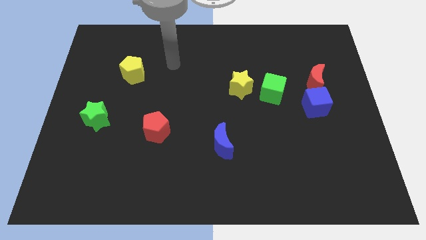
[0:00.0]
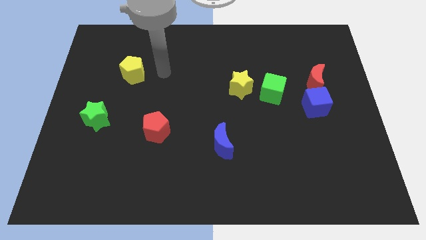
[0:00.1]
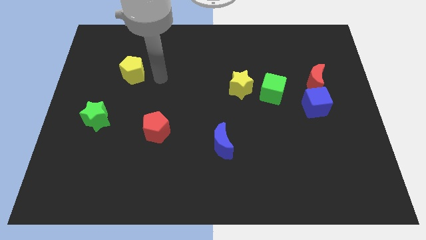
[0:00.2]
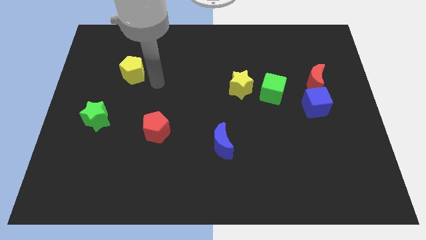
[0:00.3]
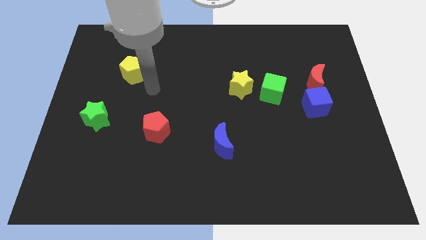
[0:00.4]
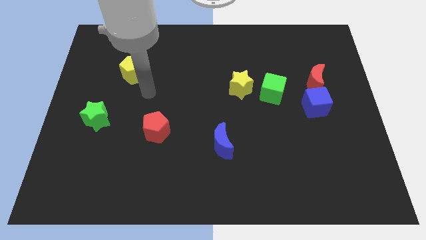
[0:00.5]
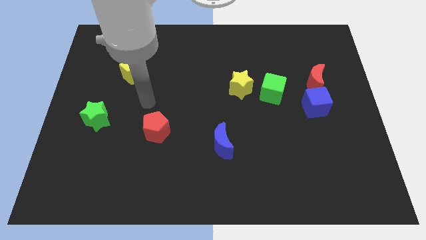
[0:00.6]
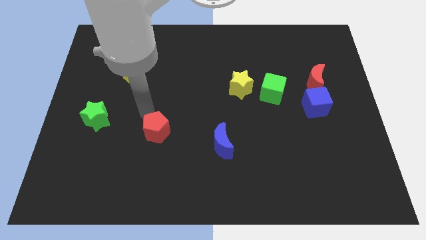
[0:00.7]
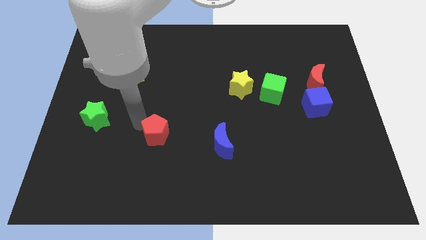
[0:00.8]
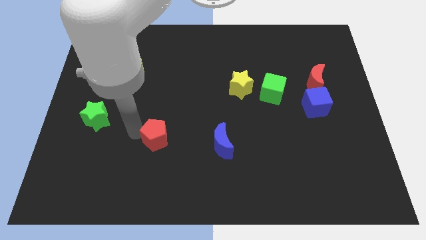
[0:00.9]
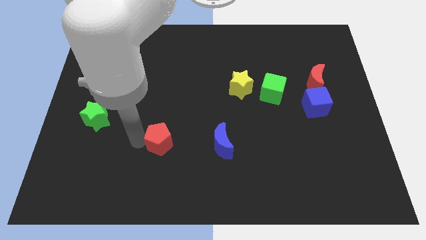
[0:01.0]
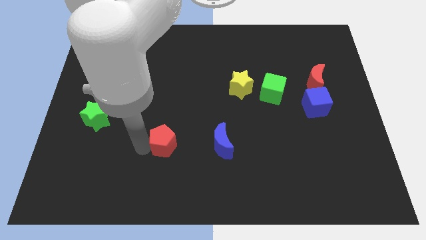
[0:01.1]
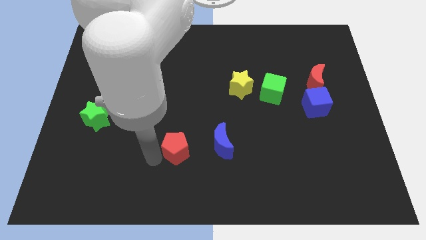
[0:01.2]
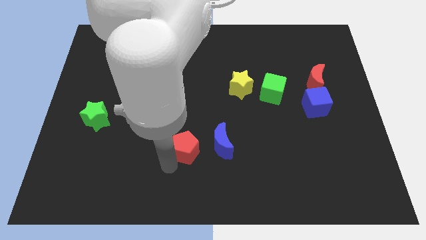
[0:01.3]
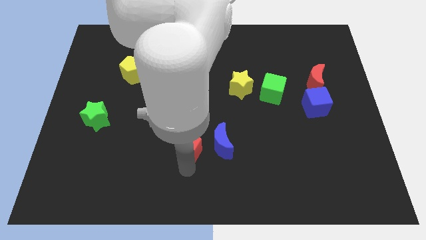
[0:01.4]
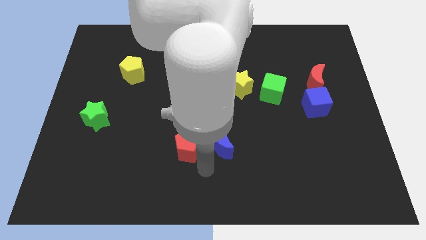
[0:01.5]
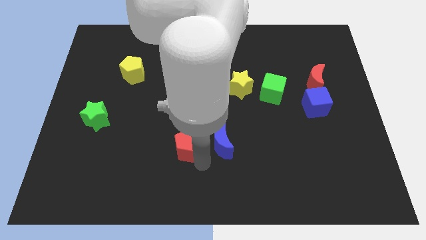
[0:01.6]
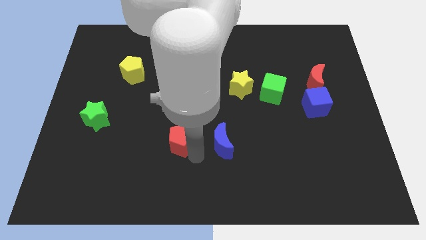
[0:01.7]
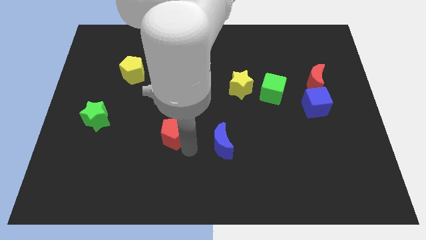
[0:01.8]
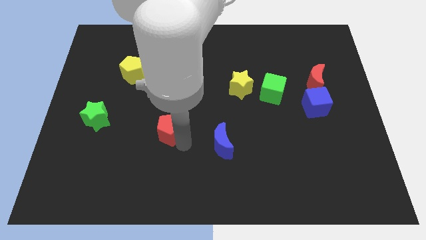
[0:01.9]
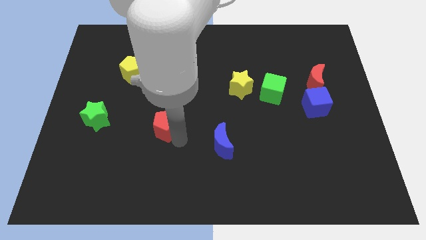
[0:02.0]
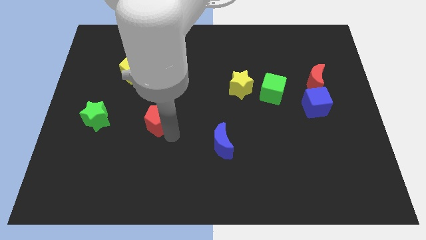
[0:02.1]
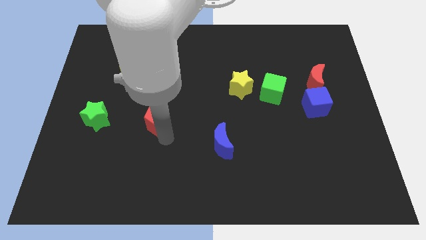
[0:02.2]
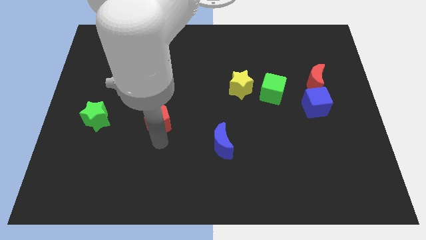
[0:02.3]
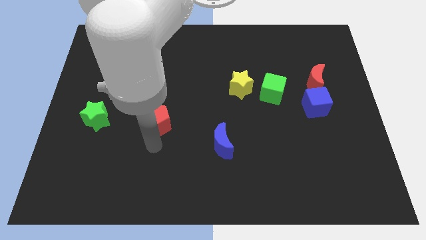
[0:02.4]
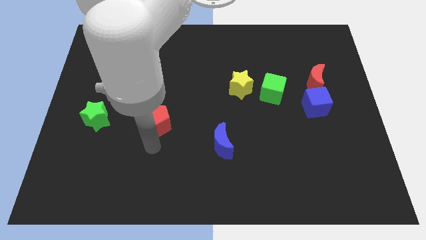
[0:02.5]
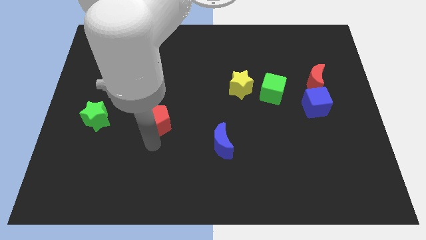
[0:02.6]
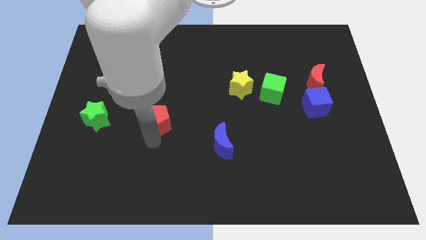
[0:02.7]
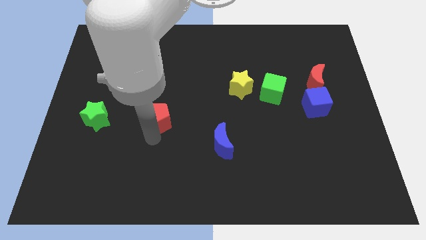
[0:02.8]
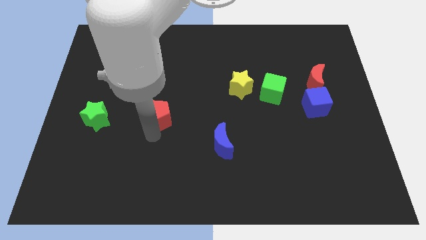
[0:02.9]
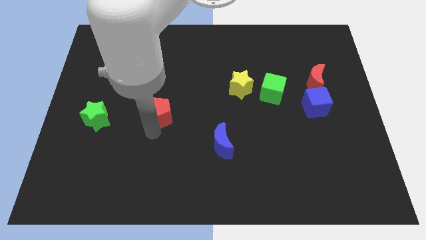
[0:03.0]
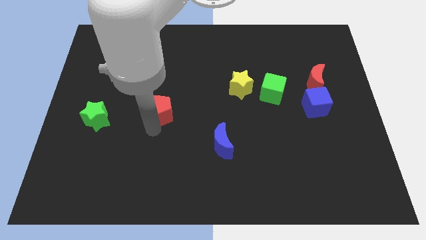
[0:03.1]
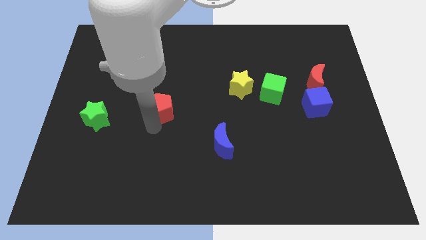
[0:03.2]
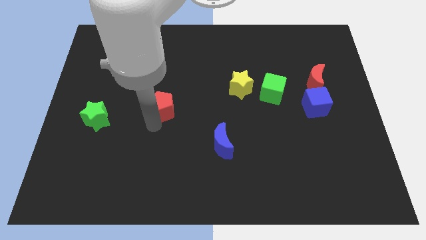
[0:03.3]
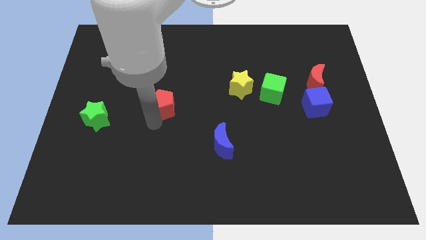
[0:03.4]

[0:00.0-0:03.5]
push the red pentagon upwards a bit

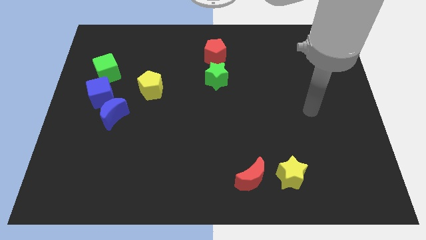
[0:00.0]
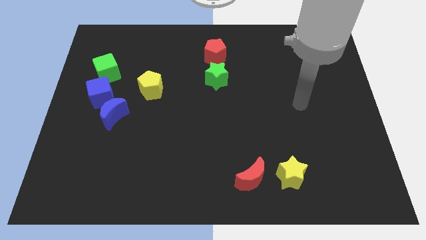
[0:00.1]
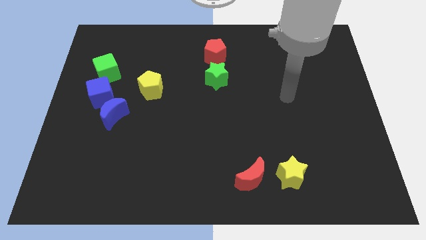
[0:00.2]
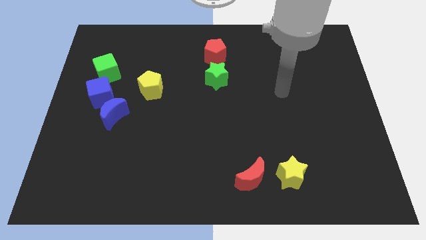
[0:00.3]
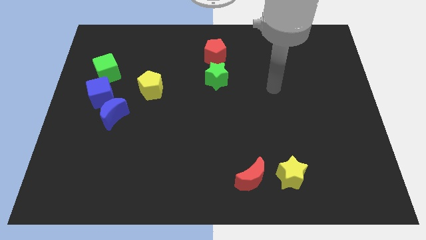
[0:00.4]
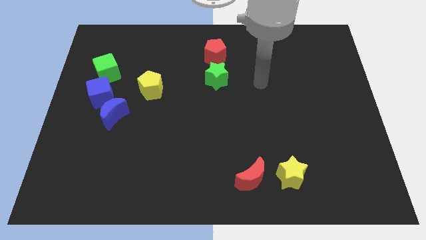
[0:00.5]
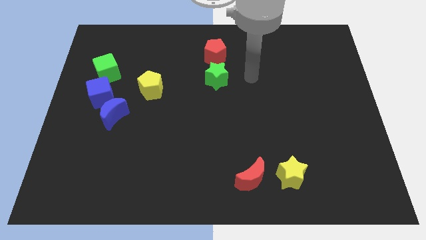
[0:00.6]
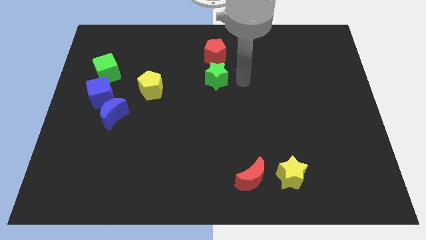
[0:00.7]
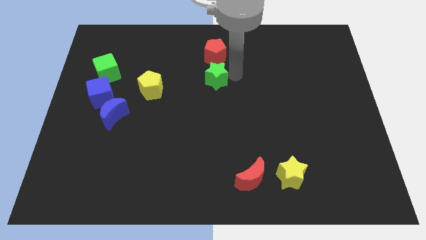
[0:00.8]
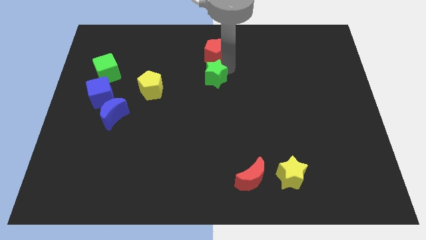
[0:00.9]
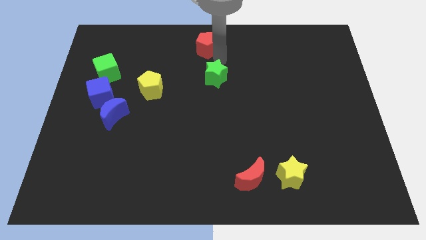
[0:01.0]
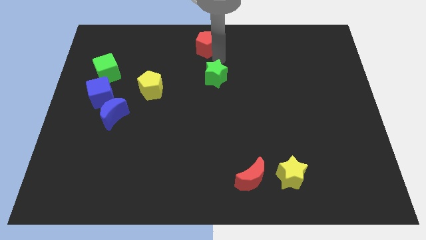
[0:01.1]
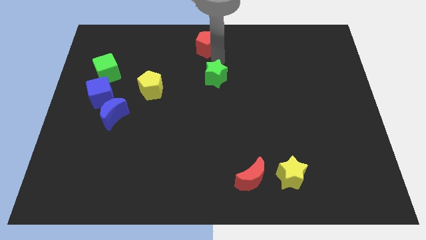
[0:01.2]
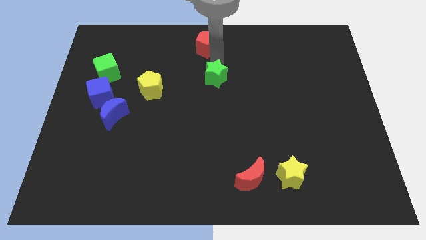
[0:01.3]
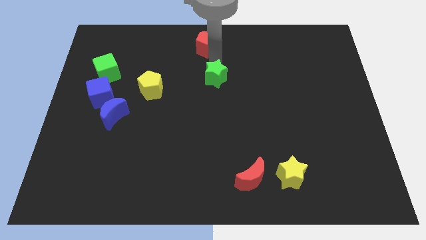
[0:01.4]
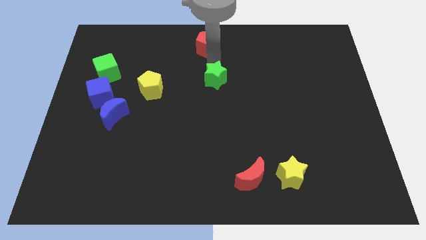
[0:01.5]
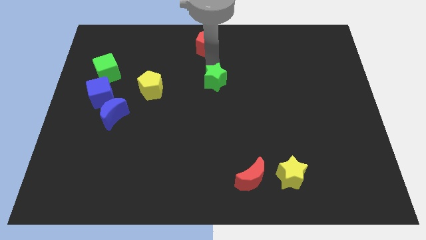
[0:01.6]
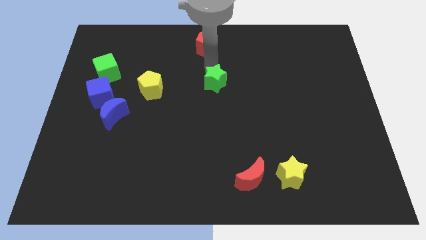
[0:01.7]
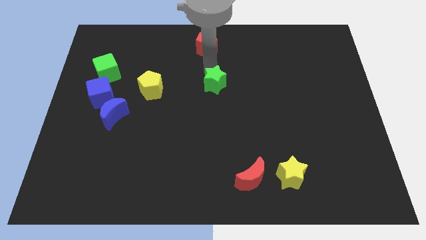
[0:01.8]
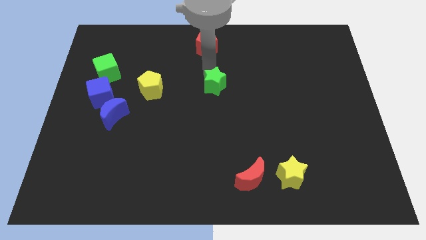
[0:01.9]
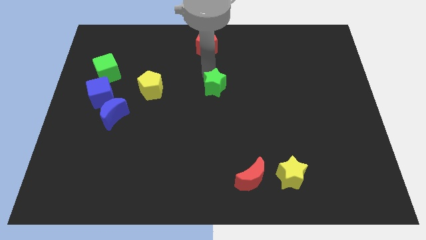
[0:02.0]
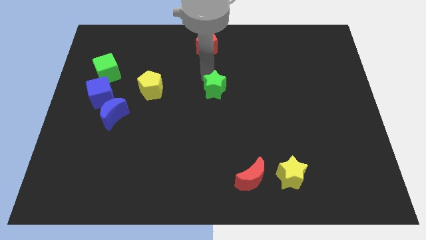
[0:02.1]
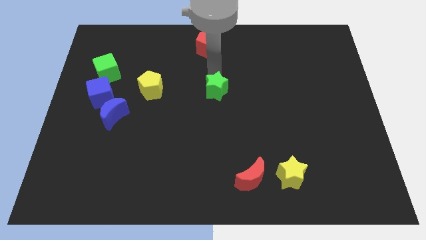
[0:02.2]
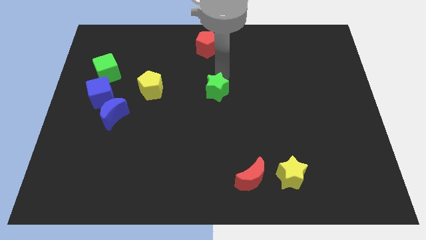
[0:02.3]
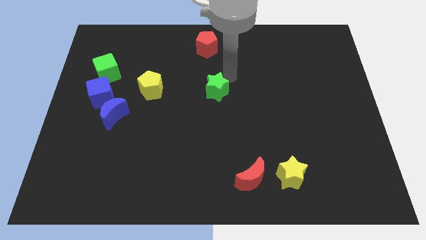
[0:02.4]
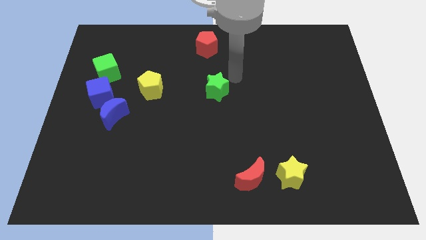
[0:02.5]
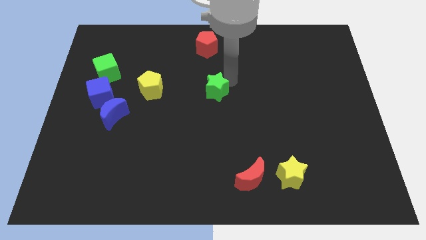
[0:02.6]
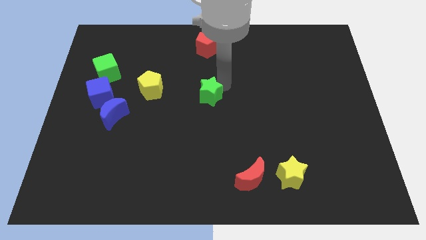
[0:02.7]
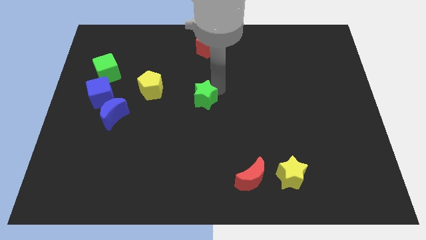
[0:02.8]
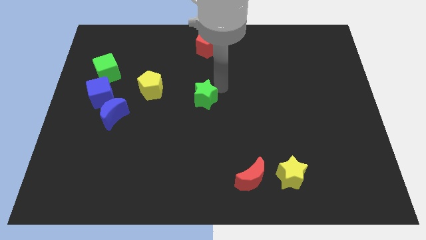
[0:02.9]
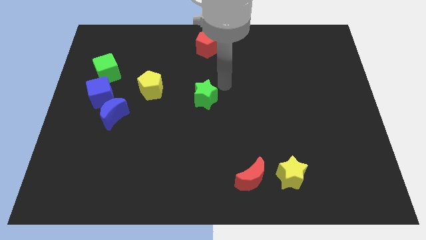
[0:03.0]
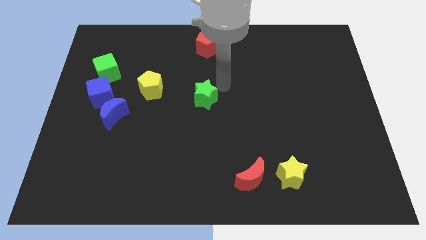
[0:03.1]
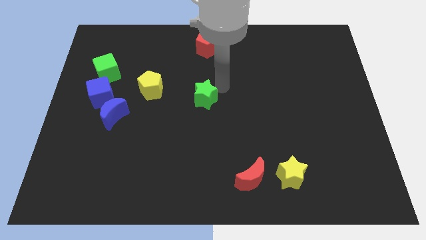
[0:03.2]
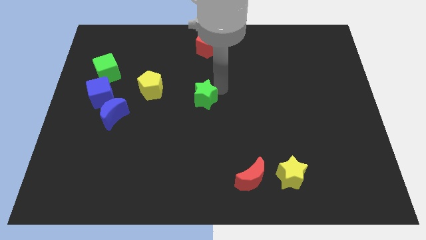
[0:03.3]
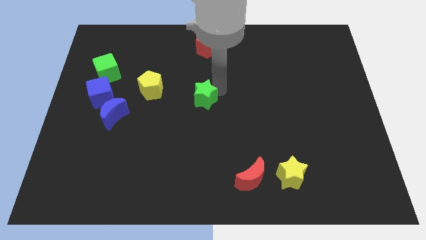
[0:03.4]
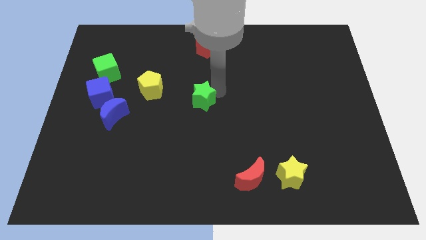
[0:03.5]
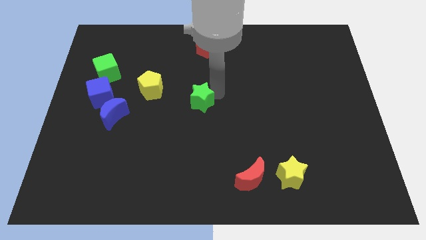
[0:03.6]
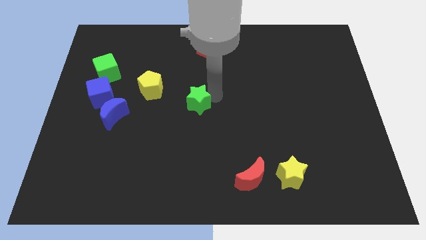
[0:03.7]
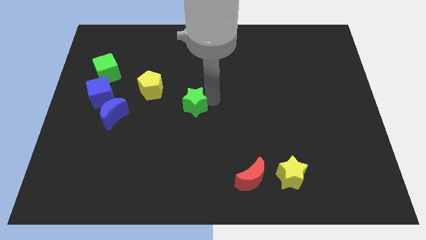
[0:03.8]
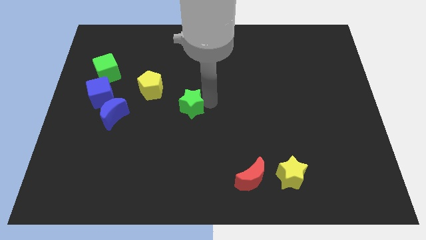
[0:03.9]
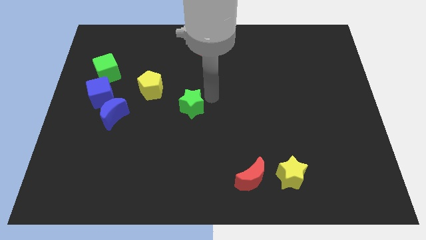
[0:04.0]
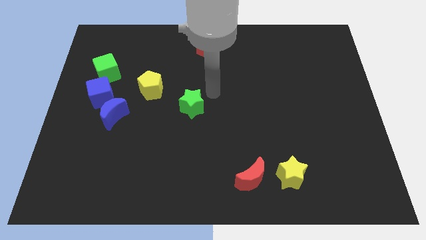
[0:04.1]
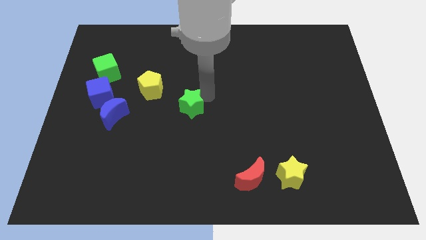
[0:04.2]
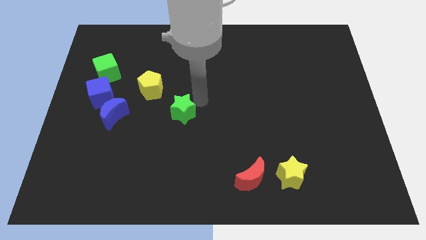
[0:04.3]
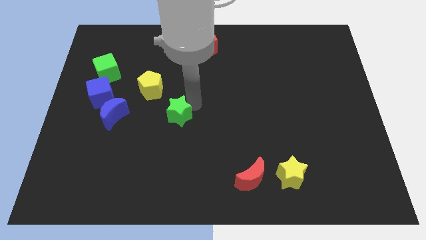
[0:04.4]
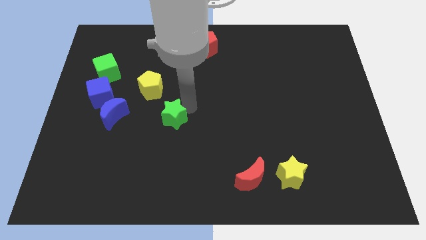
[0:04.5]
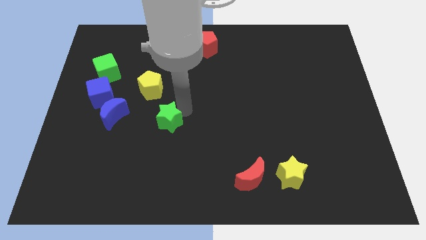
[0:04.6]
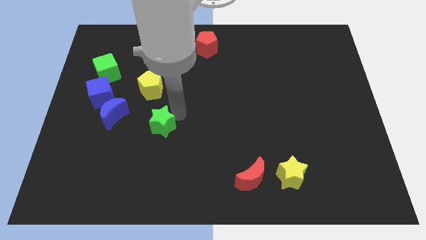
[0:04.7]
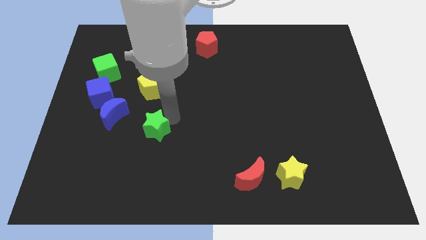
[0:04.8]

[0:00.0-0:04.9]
slide the green star diagonally down and left

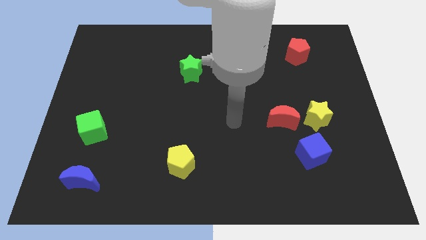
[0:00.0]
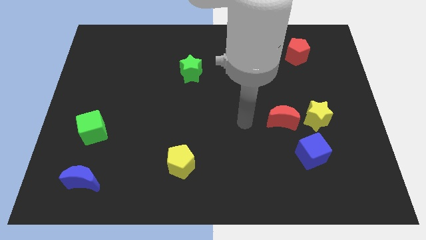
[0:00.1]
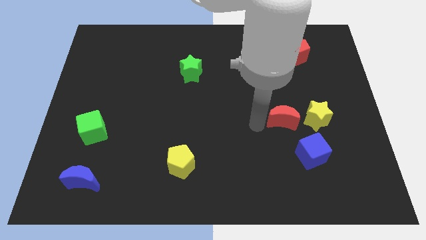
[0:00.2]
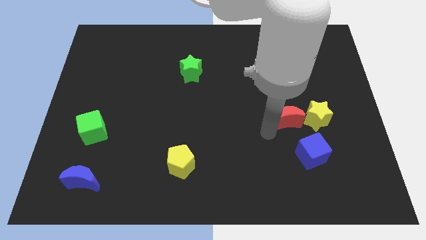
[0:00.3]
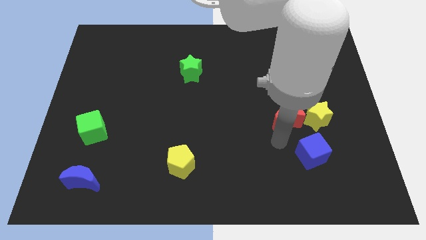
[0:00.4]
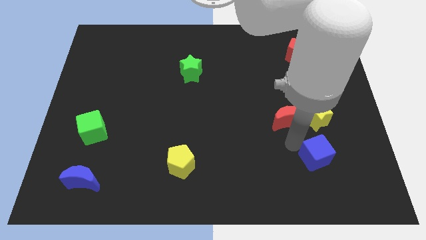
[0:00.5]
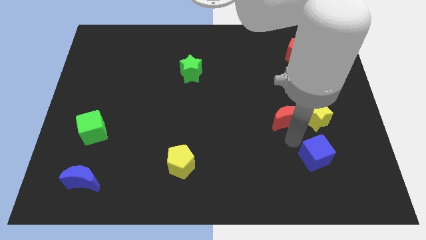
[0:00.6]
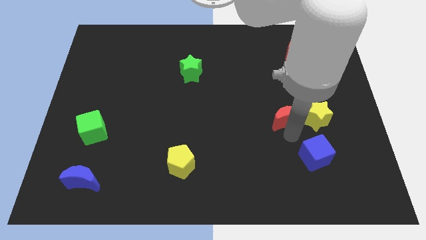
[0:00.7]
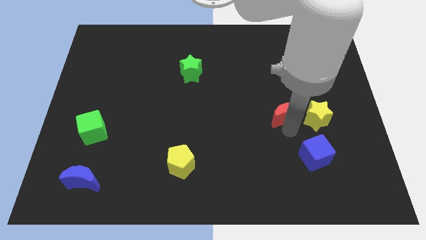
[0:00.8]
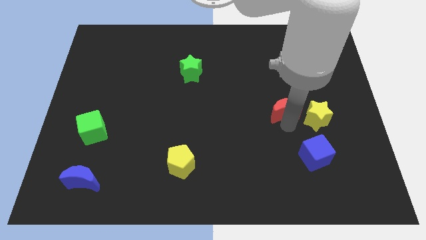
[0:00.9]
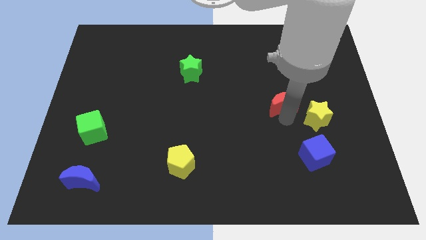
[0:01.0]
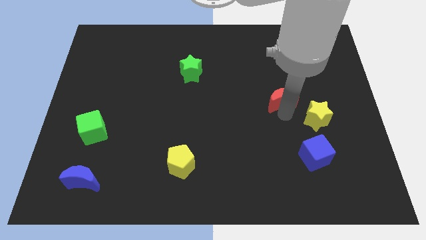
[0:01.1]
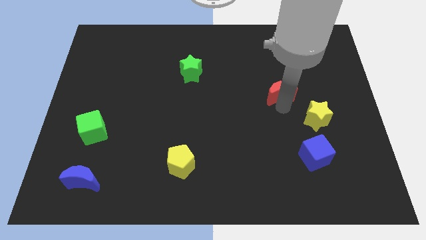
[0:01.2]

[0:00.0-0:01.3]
push the red moon somewhat upwards
